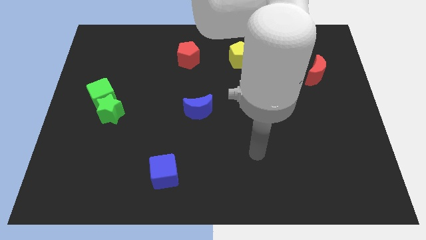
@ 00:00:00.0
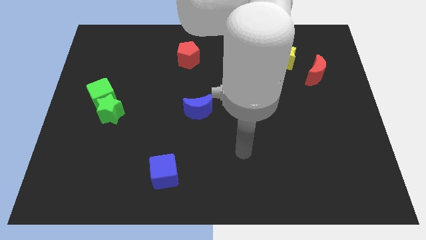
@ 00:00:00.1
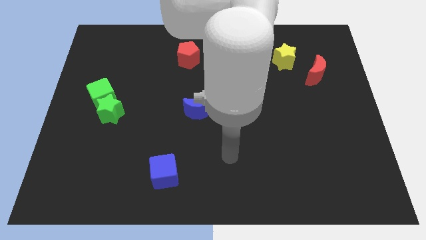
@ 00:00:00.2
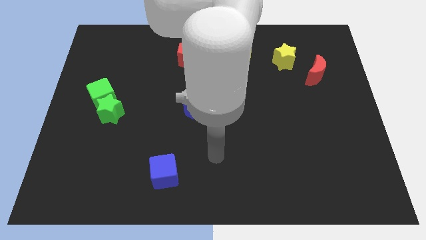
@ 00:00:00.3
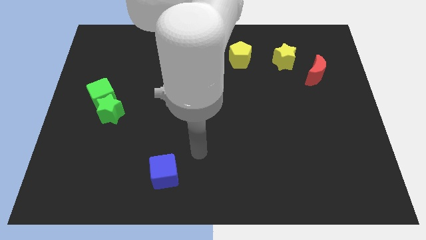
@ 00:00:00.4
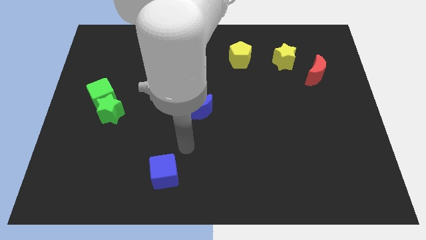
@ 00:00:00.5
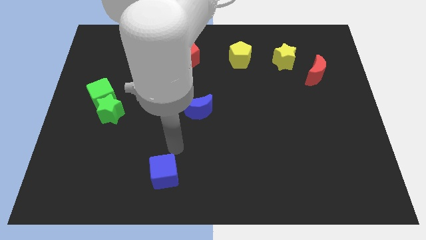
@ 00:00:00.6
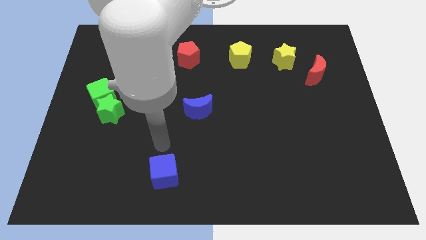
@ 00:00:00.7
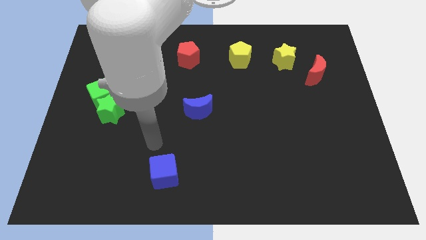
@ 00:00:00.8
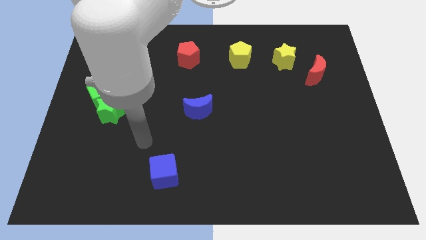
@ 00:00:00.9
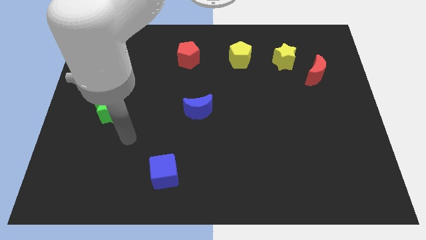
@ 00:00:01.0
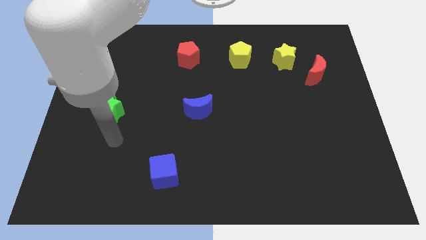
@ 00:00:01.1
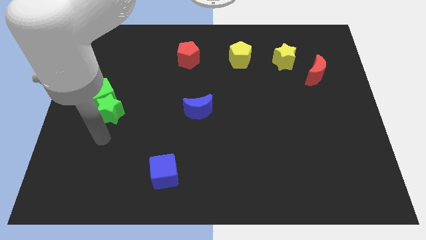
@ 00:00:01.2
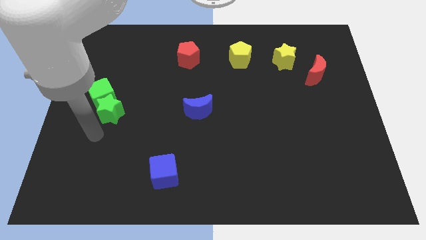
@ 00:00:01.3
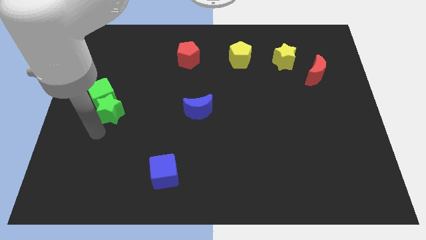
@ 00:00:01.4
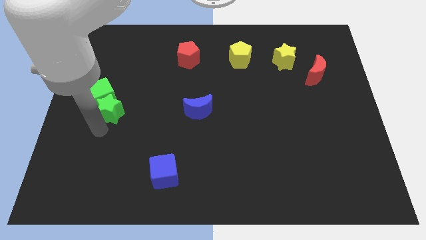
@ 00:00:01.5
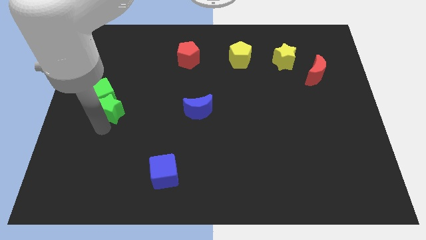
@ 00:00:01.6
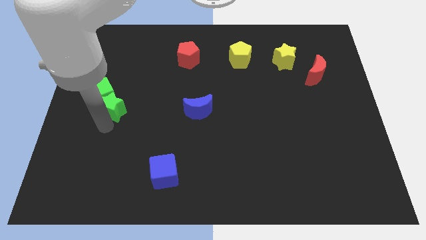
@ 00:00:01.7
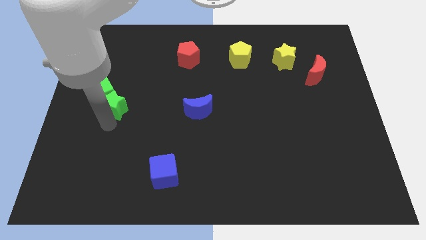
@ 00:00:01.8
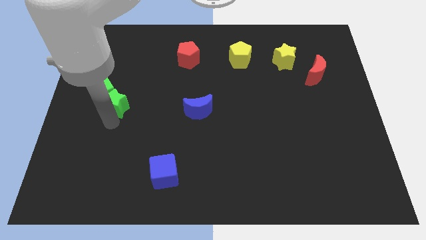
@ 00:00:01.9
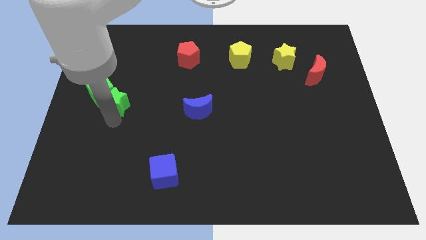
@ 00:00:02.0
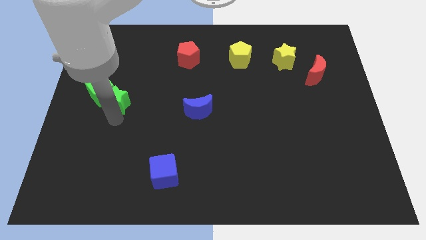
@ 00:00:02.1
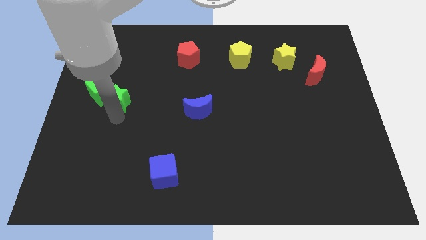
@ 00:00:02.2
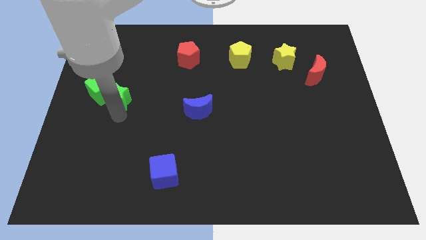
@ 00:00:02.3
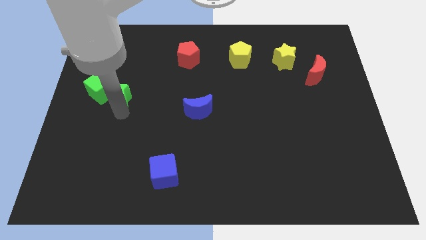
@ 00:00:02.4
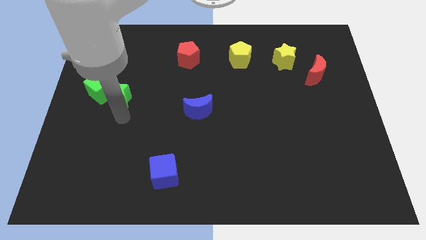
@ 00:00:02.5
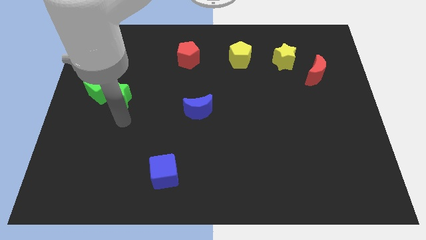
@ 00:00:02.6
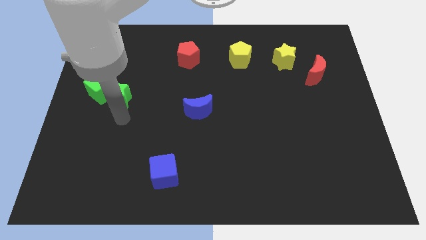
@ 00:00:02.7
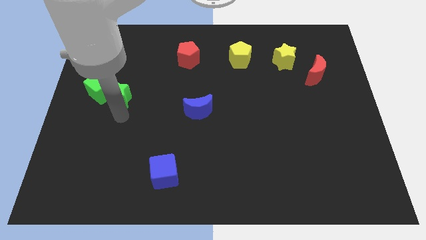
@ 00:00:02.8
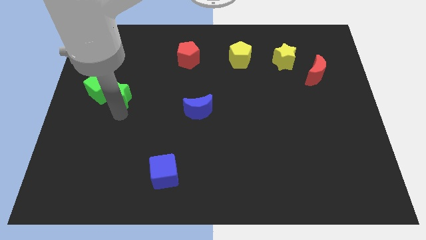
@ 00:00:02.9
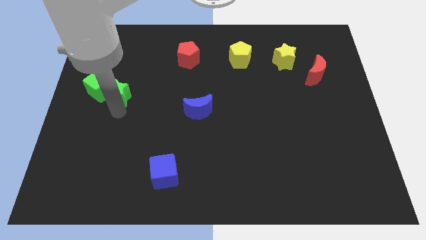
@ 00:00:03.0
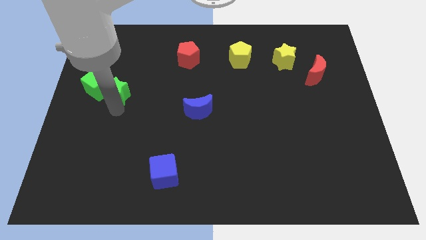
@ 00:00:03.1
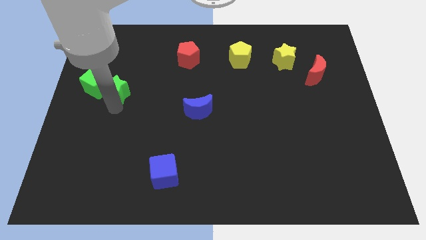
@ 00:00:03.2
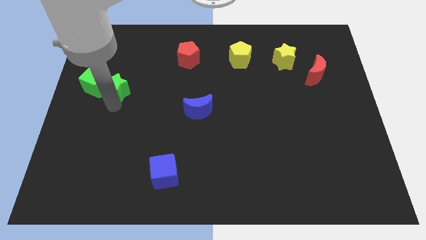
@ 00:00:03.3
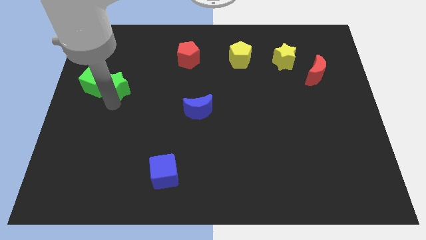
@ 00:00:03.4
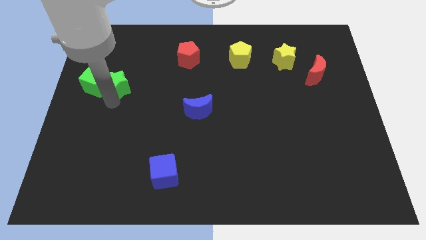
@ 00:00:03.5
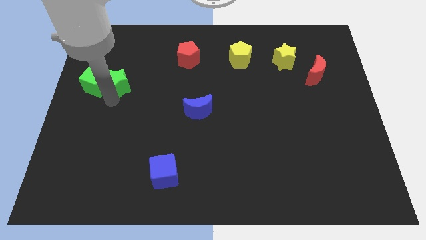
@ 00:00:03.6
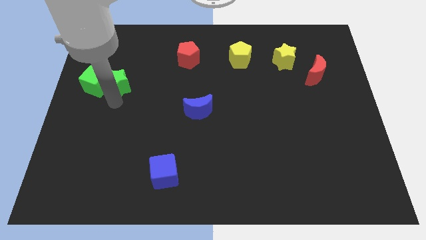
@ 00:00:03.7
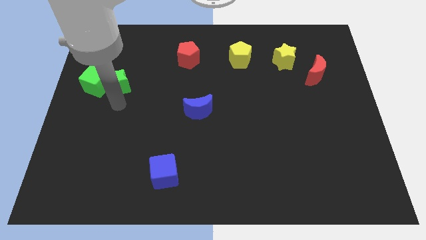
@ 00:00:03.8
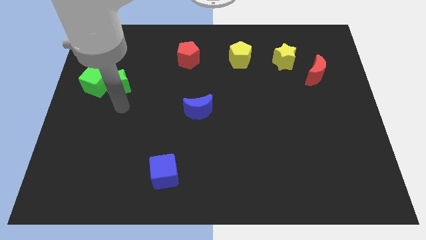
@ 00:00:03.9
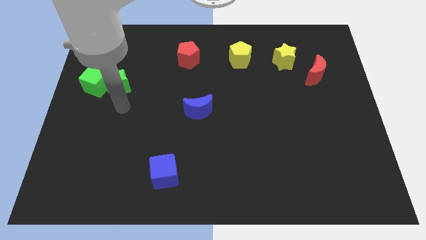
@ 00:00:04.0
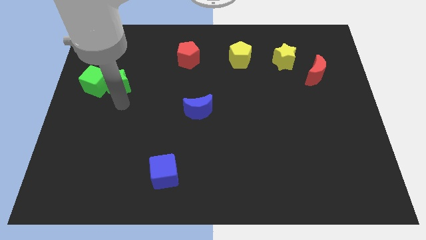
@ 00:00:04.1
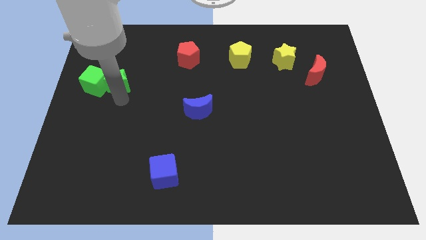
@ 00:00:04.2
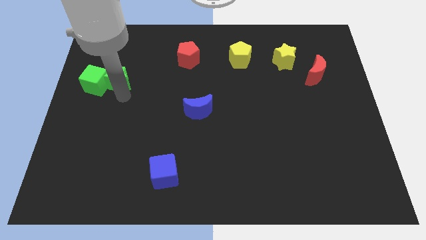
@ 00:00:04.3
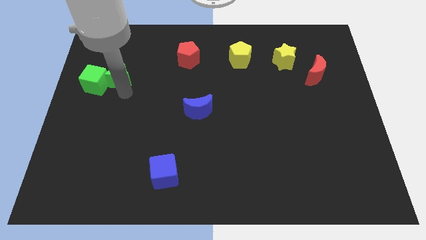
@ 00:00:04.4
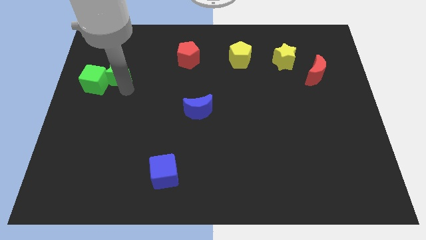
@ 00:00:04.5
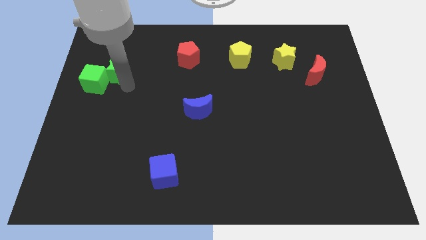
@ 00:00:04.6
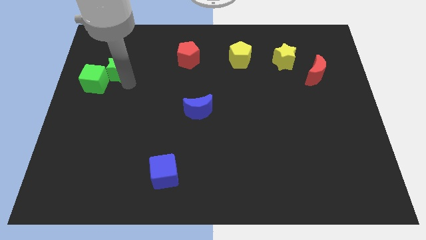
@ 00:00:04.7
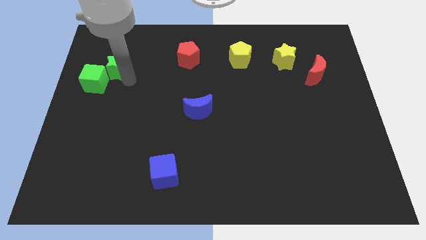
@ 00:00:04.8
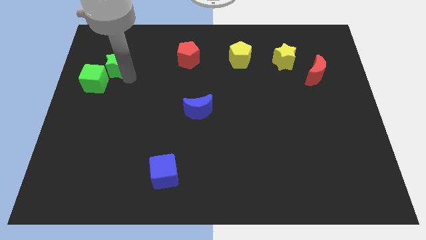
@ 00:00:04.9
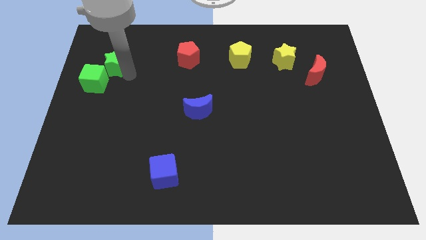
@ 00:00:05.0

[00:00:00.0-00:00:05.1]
push the green star to the top of the green cube

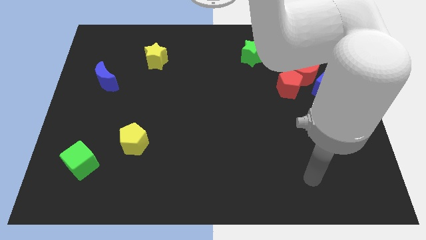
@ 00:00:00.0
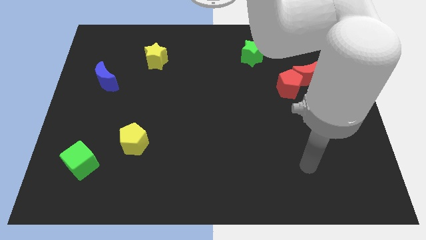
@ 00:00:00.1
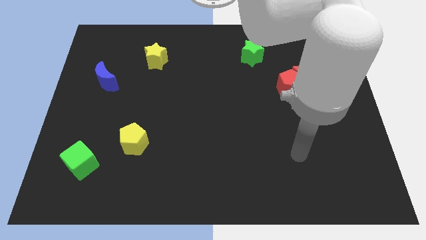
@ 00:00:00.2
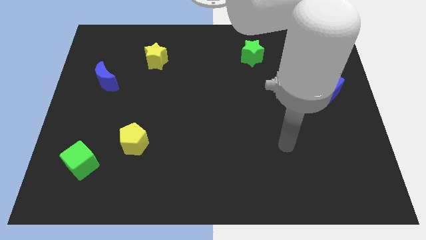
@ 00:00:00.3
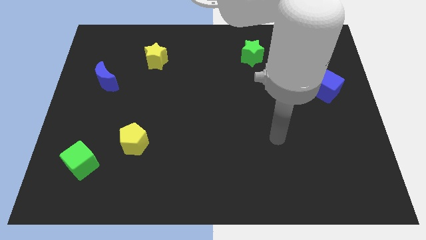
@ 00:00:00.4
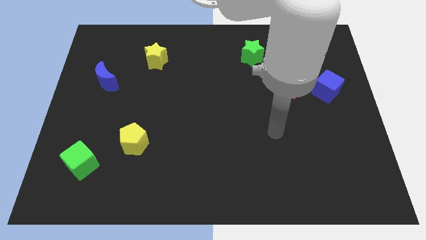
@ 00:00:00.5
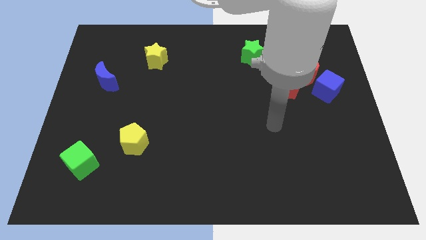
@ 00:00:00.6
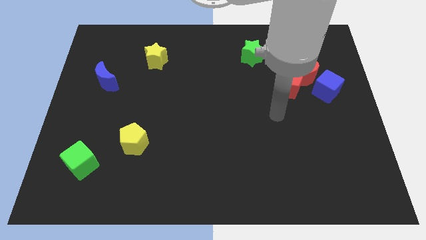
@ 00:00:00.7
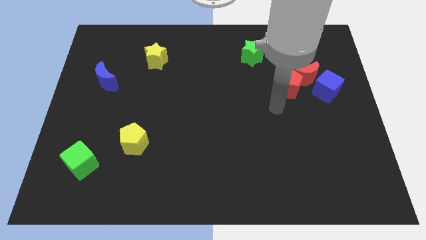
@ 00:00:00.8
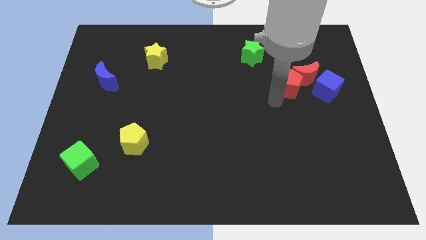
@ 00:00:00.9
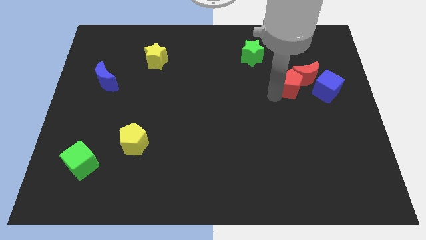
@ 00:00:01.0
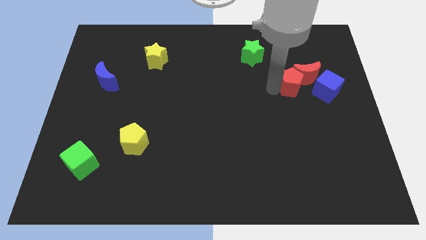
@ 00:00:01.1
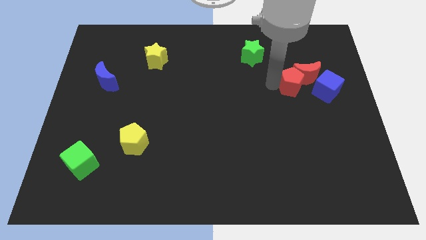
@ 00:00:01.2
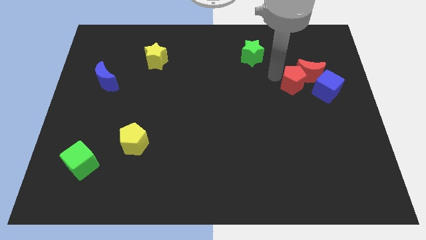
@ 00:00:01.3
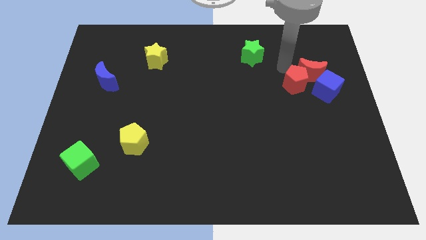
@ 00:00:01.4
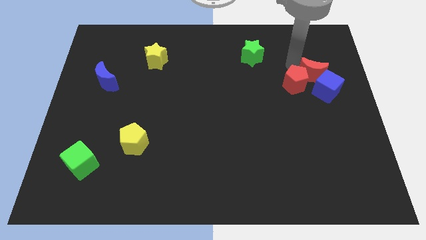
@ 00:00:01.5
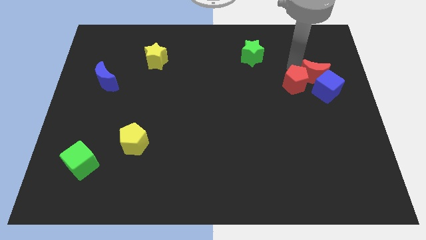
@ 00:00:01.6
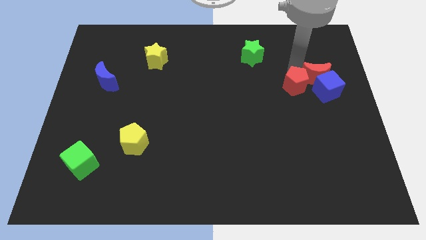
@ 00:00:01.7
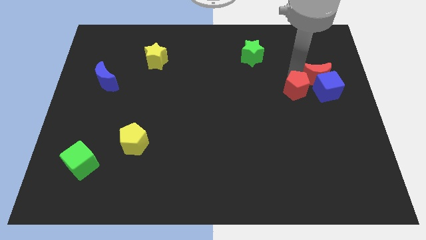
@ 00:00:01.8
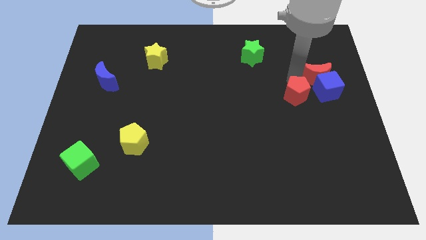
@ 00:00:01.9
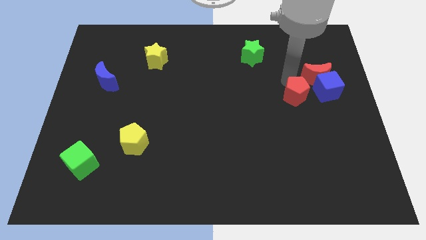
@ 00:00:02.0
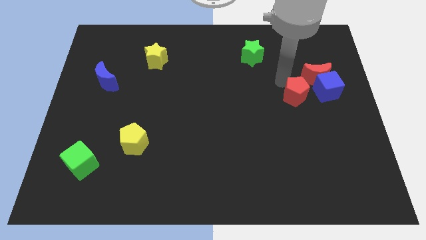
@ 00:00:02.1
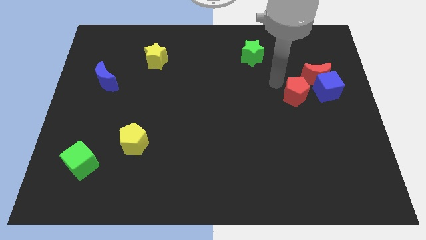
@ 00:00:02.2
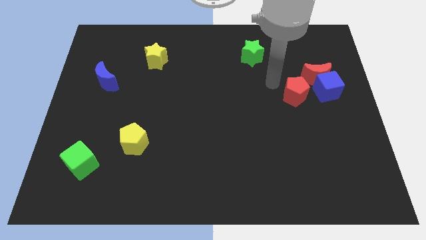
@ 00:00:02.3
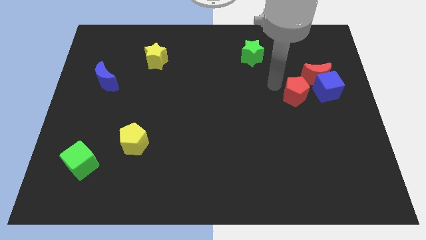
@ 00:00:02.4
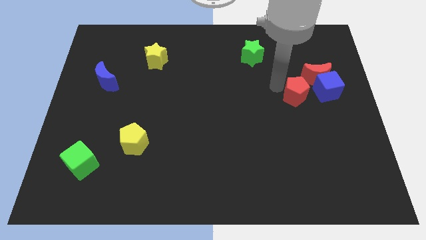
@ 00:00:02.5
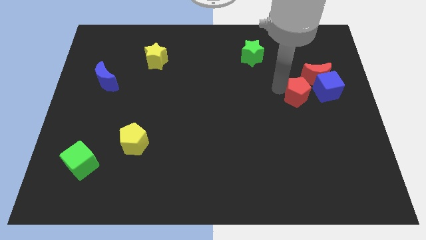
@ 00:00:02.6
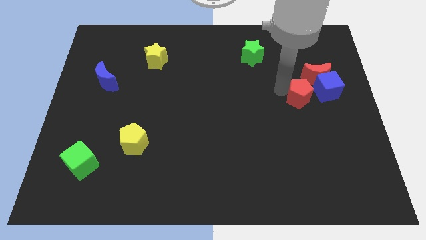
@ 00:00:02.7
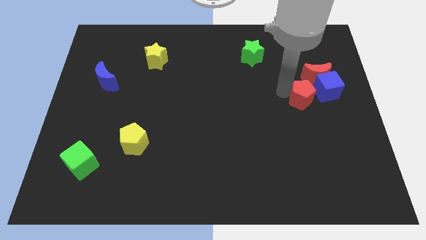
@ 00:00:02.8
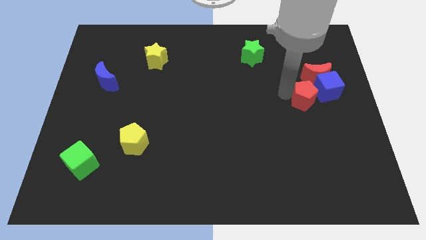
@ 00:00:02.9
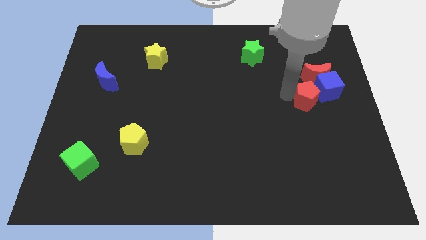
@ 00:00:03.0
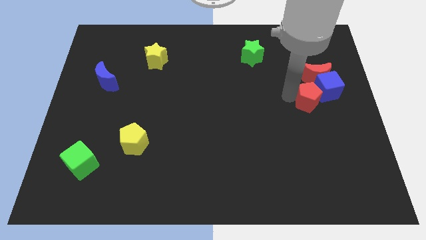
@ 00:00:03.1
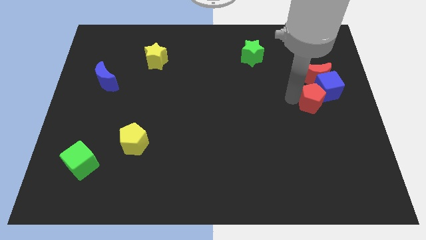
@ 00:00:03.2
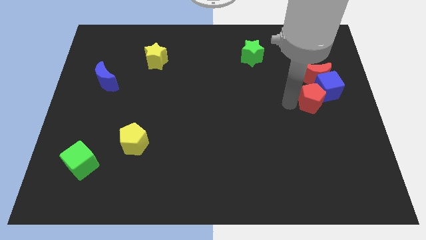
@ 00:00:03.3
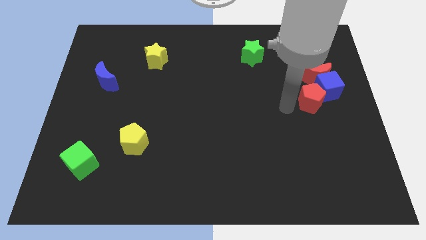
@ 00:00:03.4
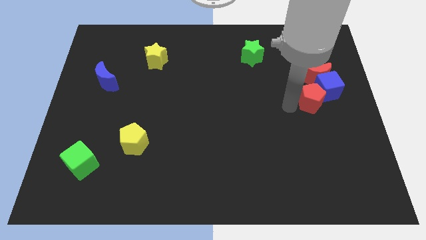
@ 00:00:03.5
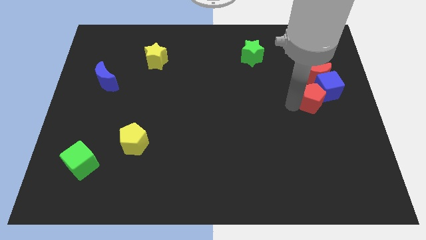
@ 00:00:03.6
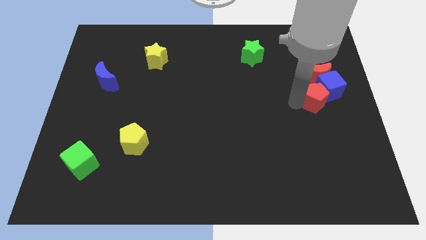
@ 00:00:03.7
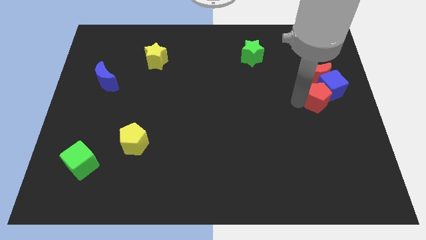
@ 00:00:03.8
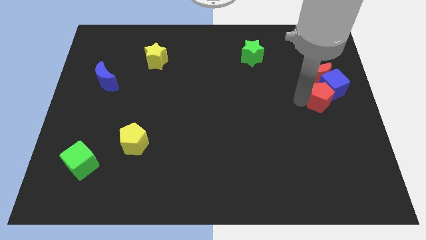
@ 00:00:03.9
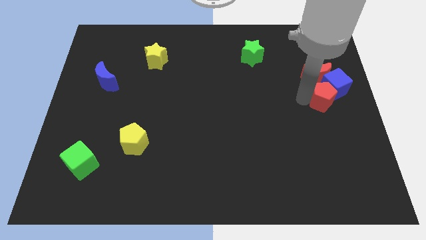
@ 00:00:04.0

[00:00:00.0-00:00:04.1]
move the red pentagon to the bottom right of the red moon
